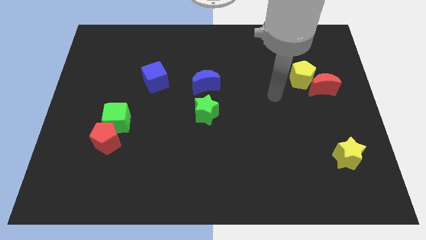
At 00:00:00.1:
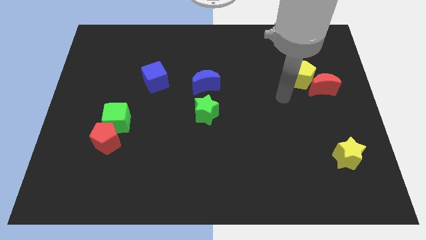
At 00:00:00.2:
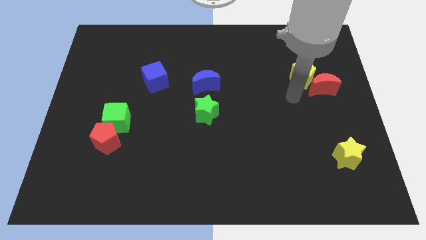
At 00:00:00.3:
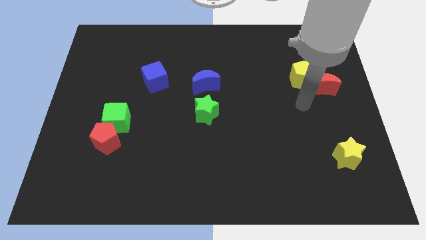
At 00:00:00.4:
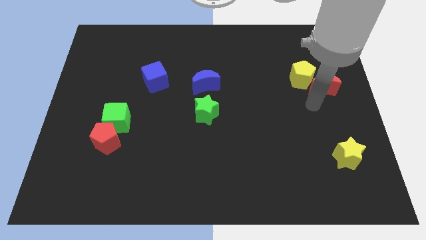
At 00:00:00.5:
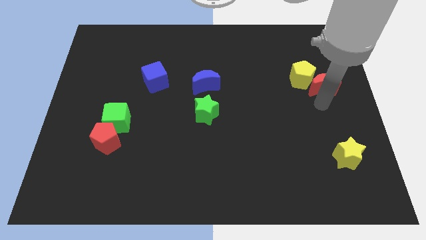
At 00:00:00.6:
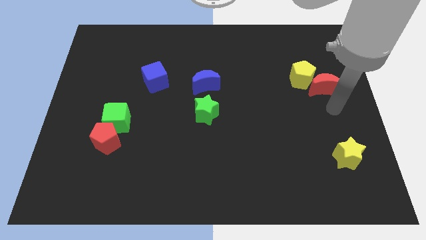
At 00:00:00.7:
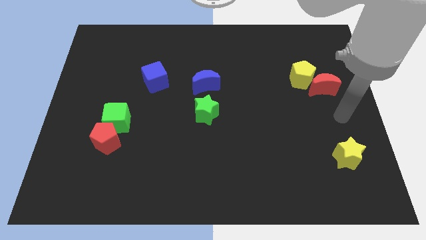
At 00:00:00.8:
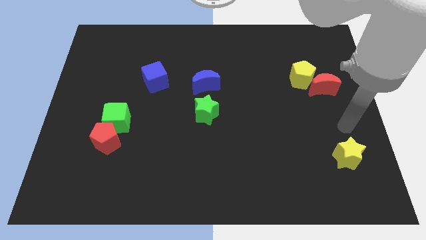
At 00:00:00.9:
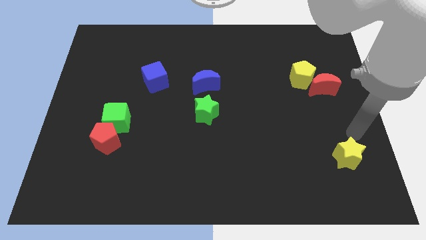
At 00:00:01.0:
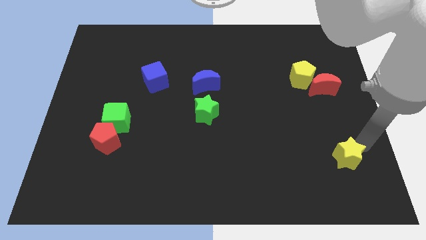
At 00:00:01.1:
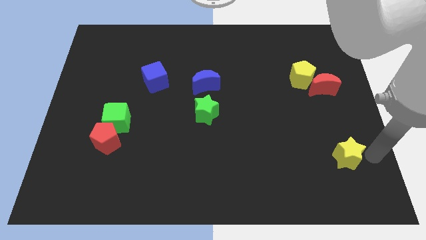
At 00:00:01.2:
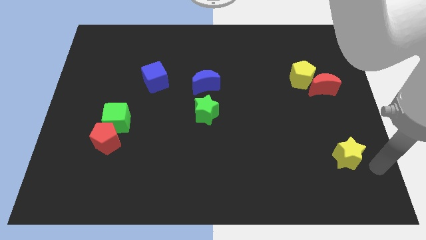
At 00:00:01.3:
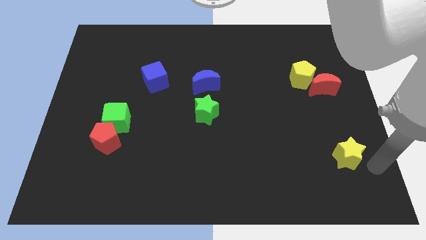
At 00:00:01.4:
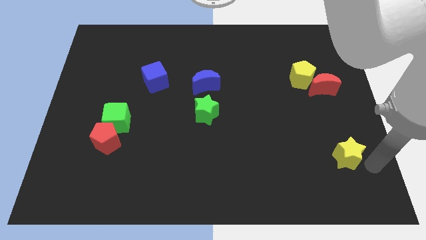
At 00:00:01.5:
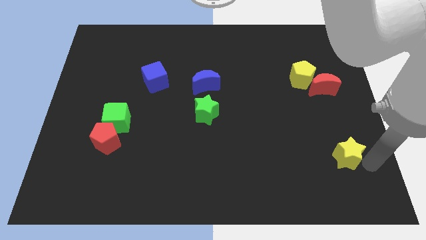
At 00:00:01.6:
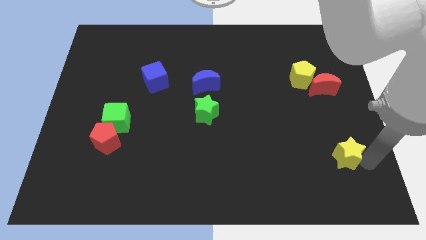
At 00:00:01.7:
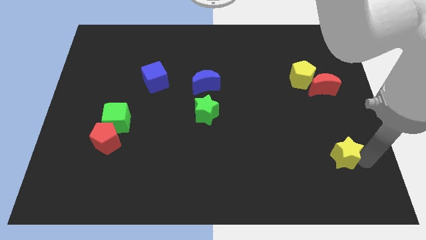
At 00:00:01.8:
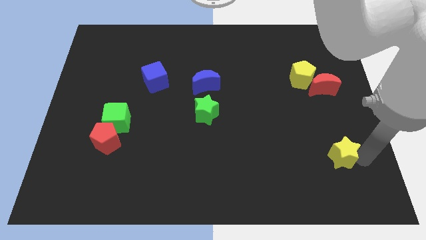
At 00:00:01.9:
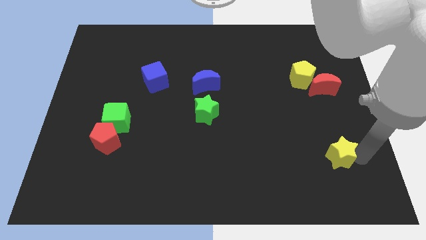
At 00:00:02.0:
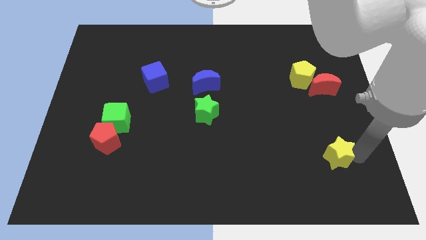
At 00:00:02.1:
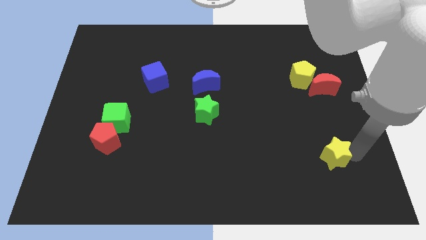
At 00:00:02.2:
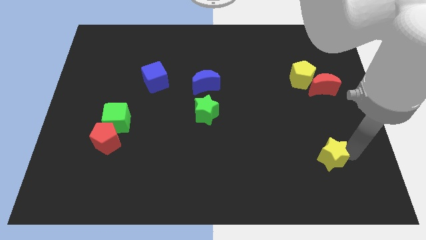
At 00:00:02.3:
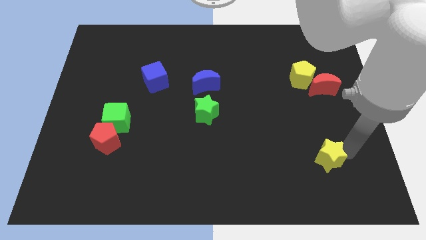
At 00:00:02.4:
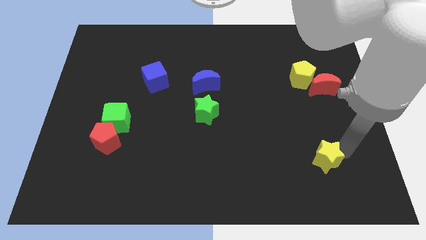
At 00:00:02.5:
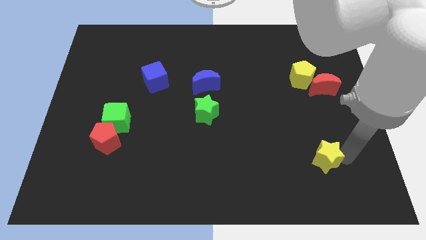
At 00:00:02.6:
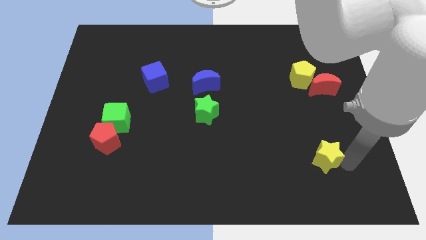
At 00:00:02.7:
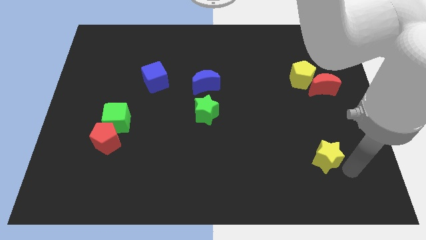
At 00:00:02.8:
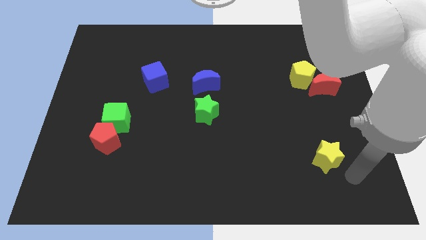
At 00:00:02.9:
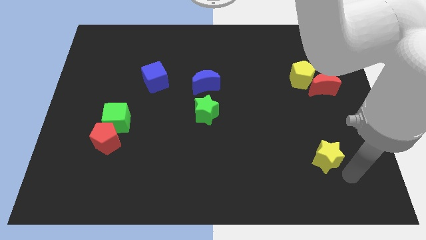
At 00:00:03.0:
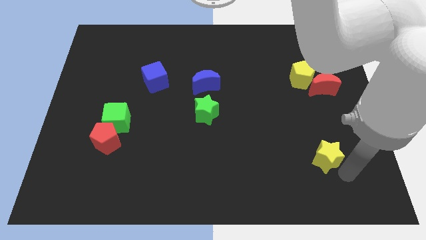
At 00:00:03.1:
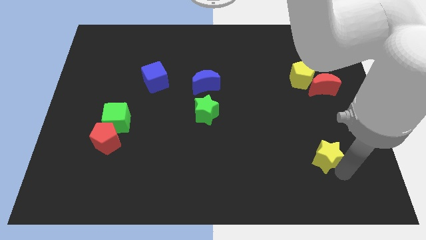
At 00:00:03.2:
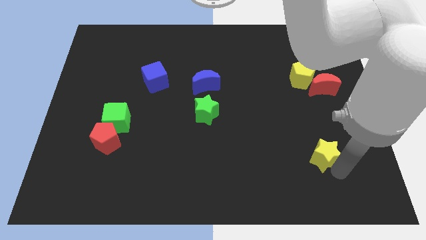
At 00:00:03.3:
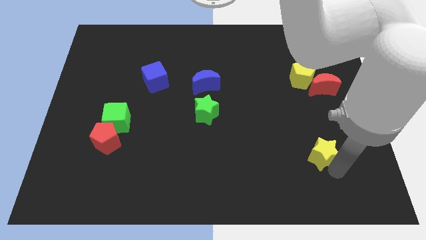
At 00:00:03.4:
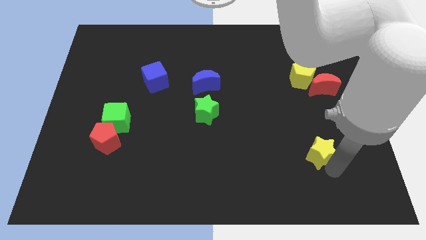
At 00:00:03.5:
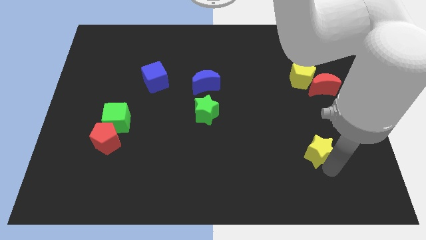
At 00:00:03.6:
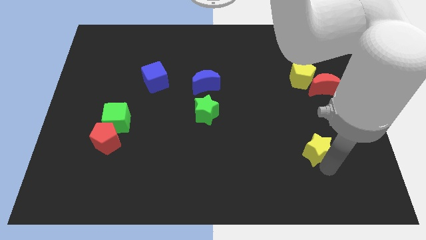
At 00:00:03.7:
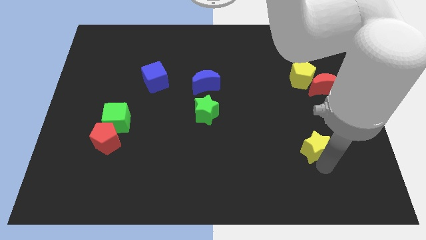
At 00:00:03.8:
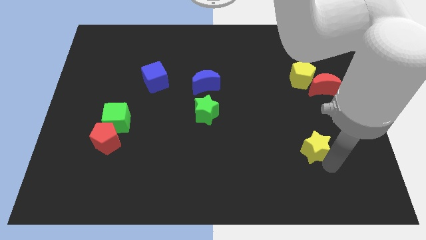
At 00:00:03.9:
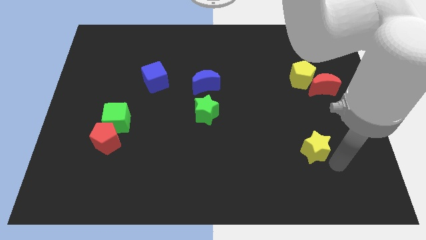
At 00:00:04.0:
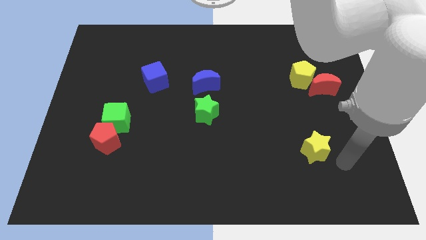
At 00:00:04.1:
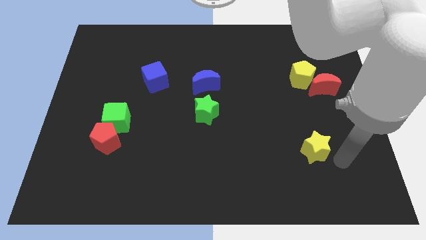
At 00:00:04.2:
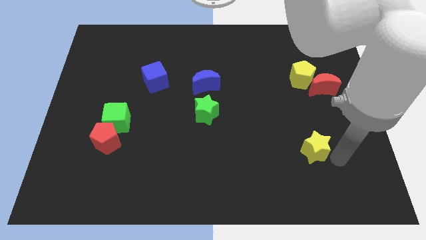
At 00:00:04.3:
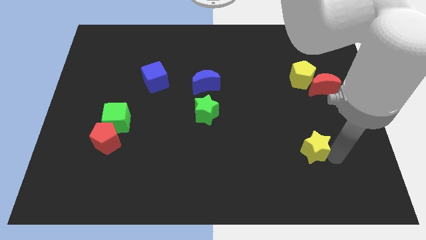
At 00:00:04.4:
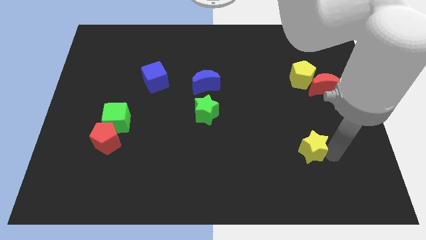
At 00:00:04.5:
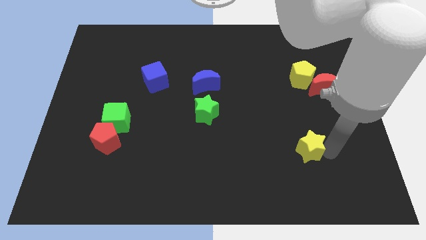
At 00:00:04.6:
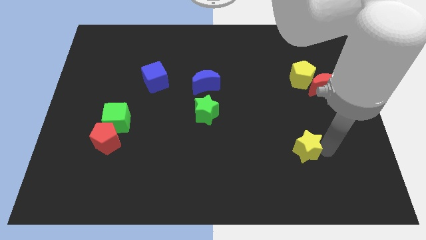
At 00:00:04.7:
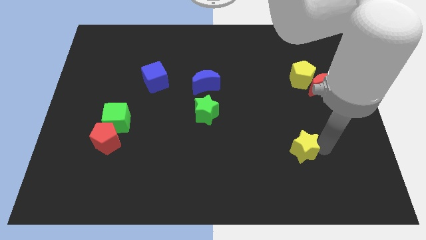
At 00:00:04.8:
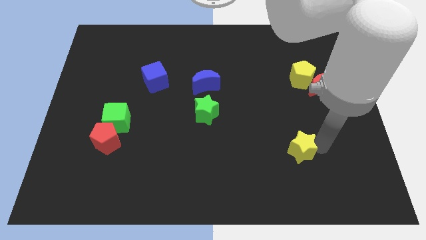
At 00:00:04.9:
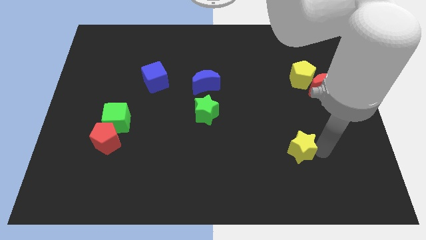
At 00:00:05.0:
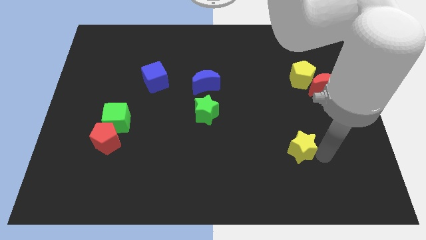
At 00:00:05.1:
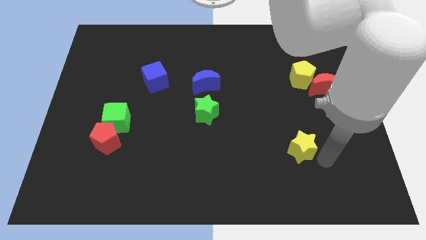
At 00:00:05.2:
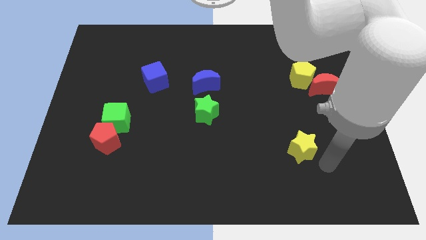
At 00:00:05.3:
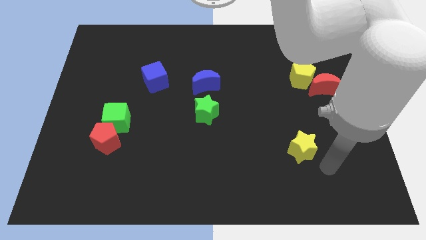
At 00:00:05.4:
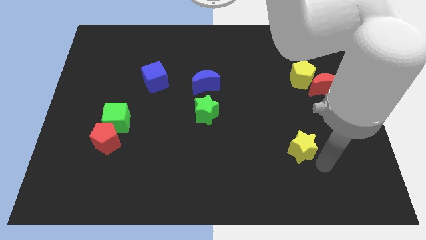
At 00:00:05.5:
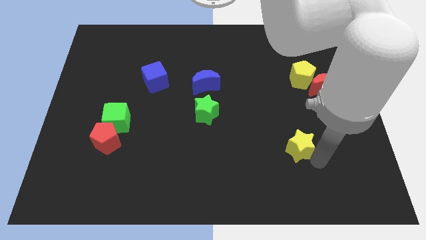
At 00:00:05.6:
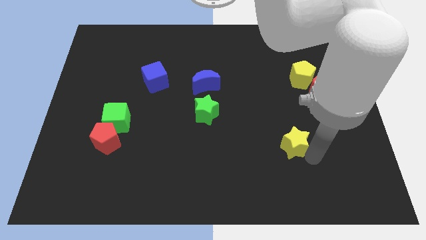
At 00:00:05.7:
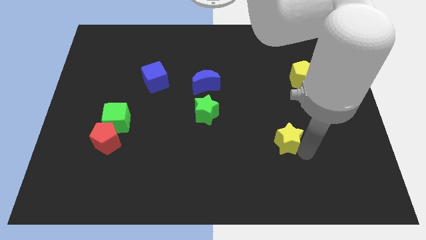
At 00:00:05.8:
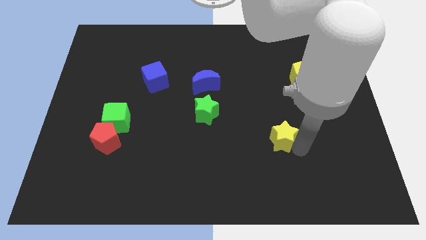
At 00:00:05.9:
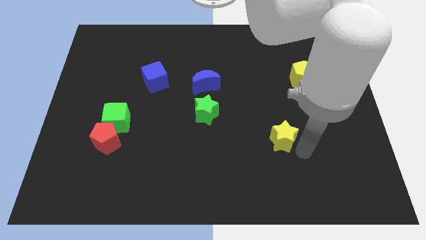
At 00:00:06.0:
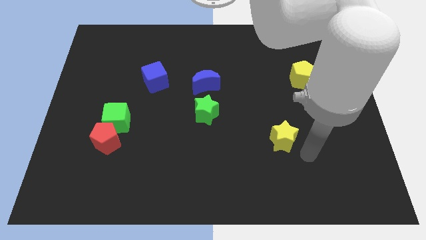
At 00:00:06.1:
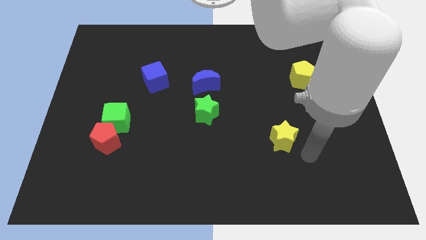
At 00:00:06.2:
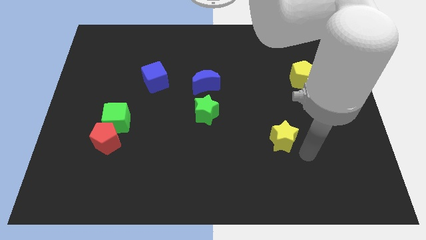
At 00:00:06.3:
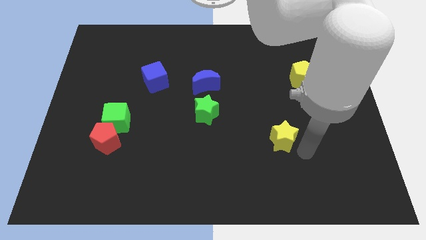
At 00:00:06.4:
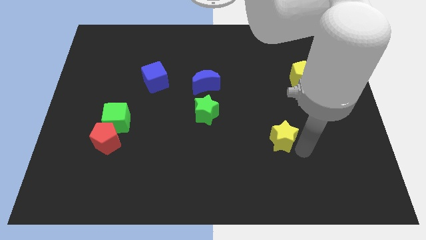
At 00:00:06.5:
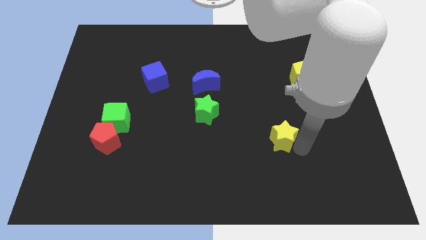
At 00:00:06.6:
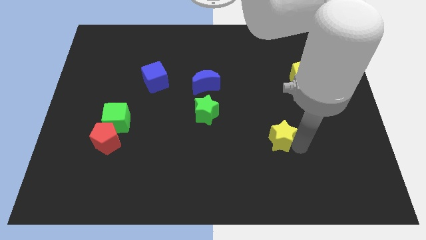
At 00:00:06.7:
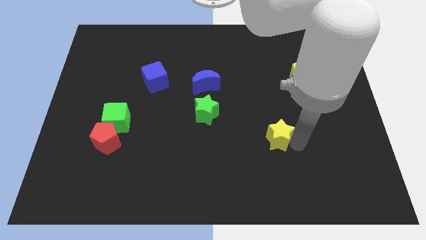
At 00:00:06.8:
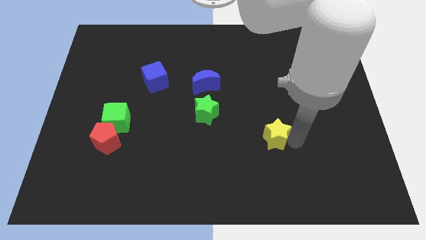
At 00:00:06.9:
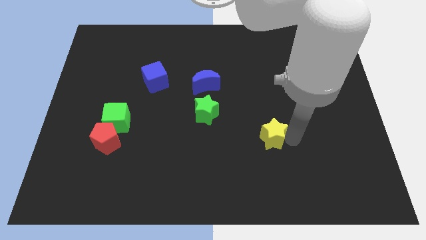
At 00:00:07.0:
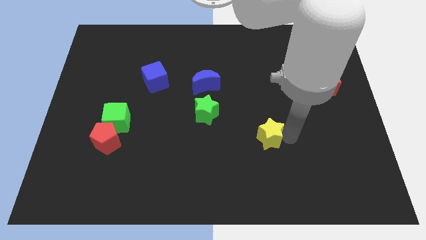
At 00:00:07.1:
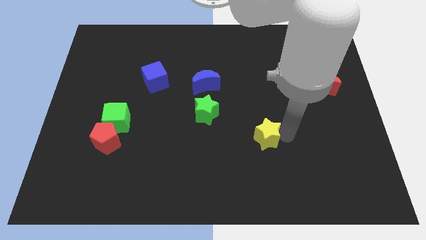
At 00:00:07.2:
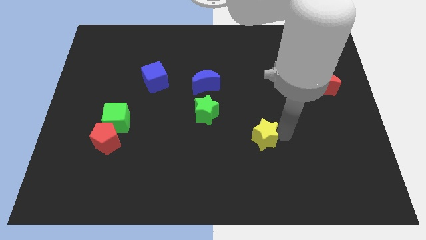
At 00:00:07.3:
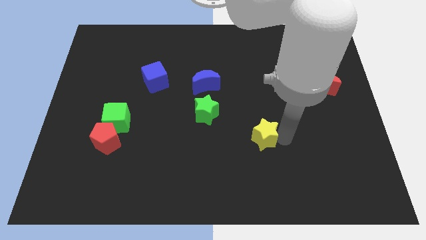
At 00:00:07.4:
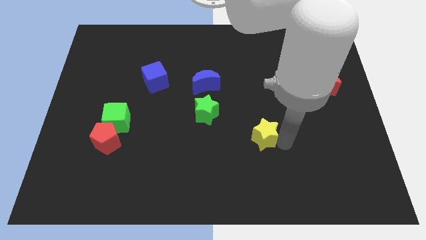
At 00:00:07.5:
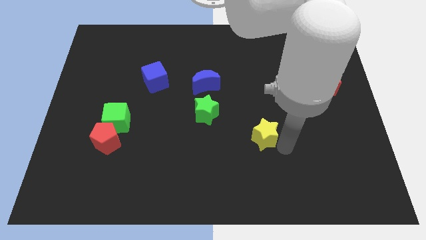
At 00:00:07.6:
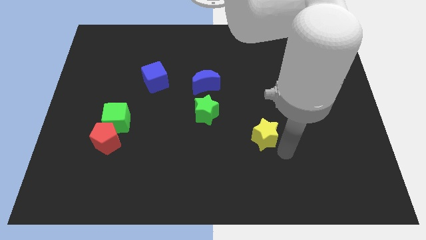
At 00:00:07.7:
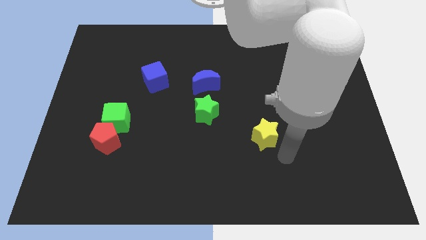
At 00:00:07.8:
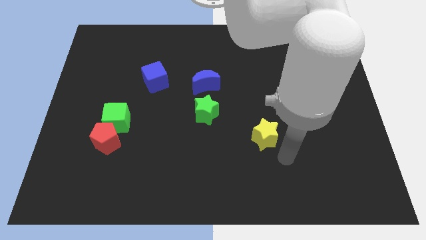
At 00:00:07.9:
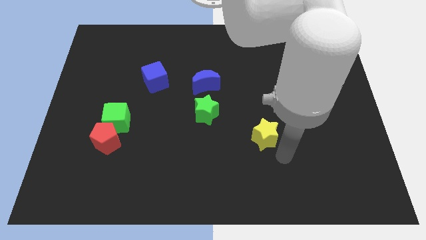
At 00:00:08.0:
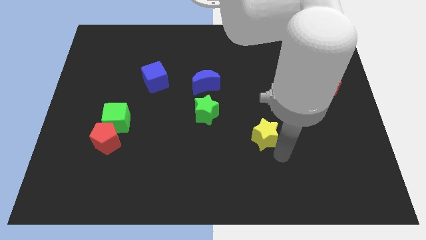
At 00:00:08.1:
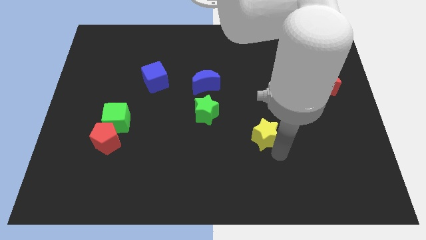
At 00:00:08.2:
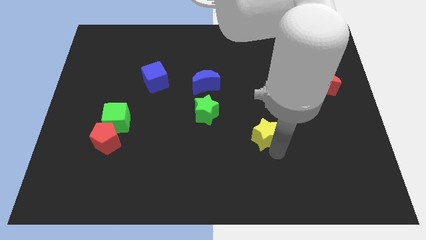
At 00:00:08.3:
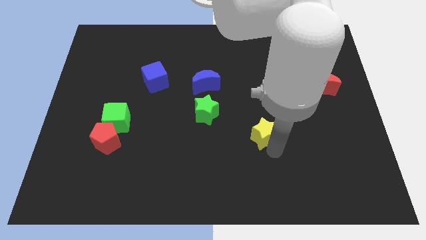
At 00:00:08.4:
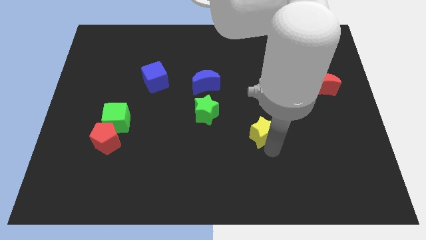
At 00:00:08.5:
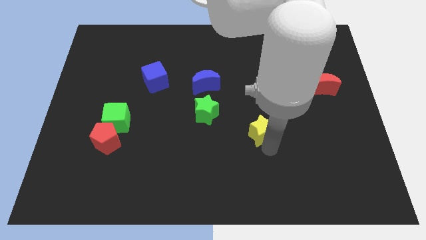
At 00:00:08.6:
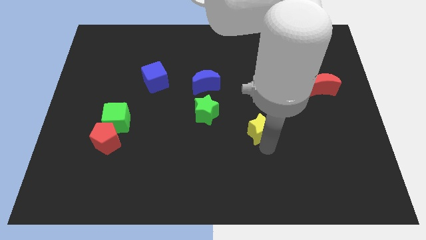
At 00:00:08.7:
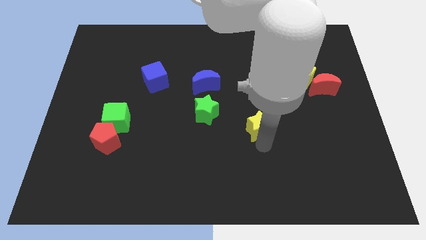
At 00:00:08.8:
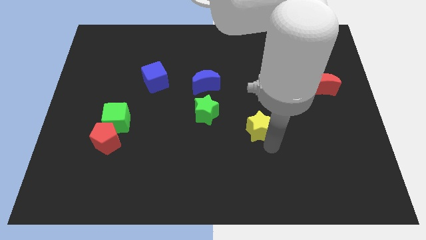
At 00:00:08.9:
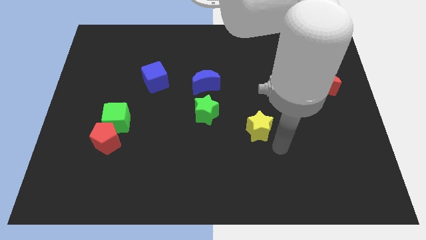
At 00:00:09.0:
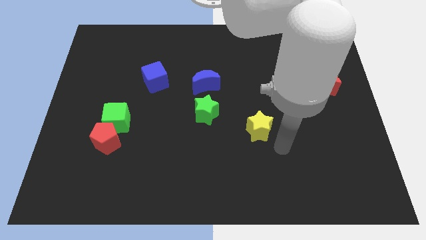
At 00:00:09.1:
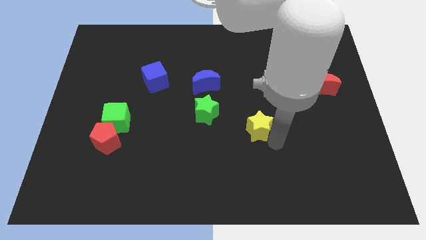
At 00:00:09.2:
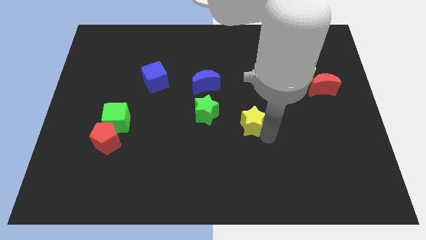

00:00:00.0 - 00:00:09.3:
put the yellow star to the middle
